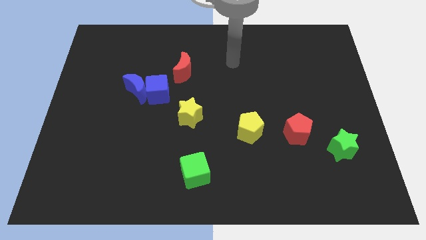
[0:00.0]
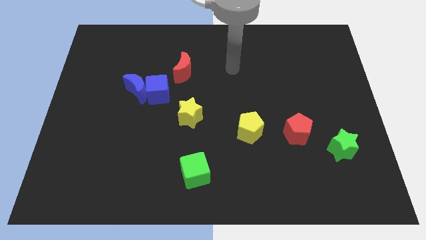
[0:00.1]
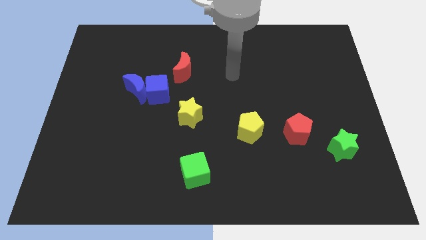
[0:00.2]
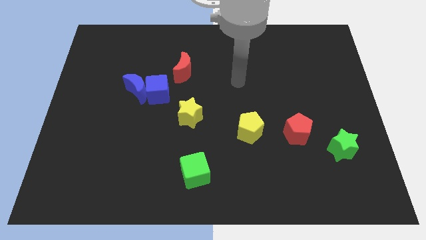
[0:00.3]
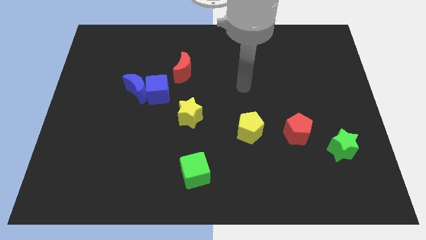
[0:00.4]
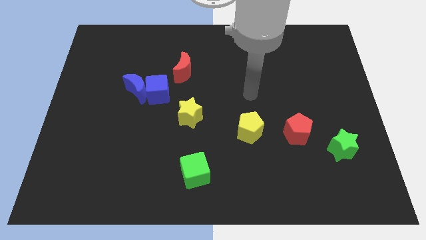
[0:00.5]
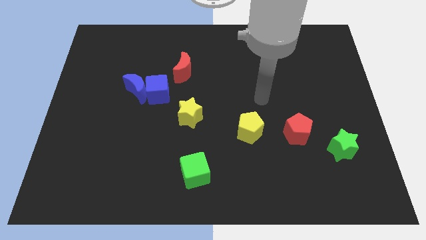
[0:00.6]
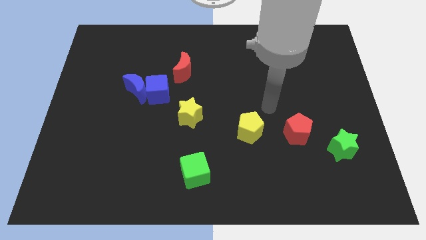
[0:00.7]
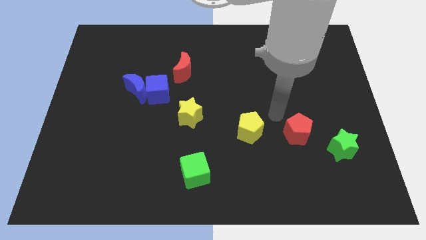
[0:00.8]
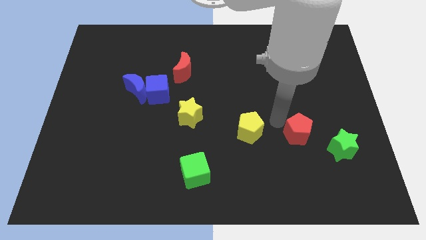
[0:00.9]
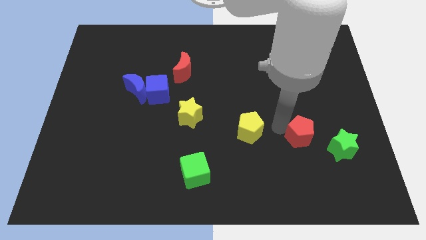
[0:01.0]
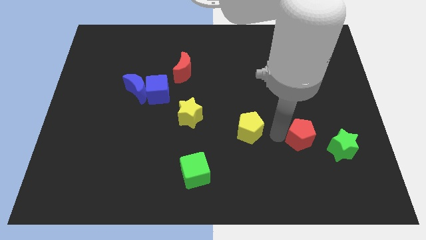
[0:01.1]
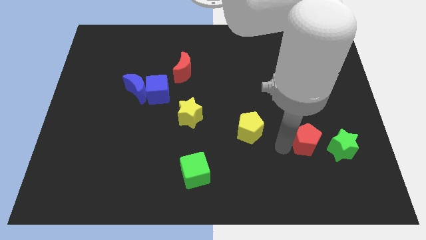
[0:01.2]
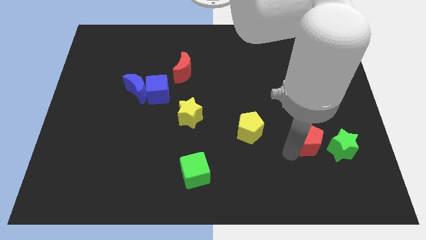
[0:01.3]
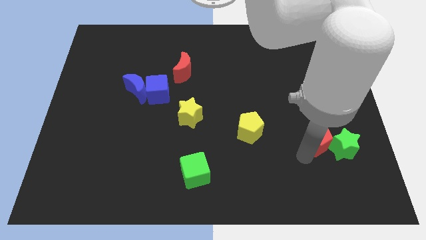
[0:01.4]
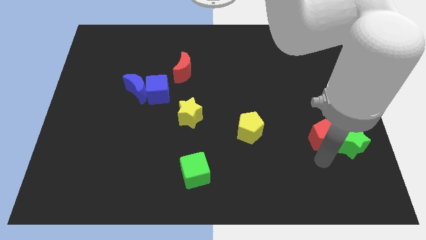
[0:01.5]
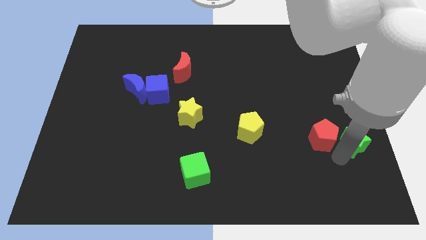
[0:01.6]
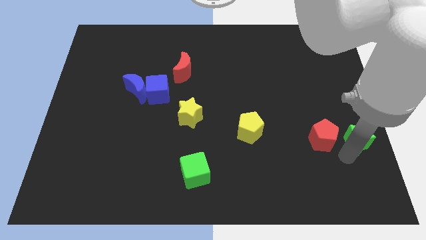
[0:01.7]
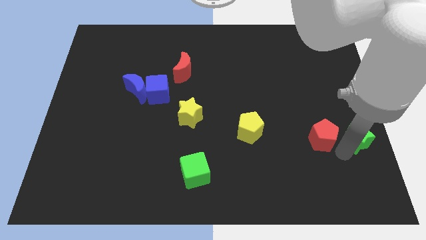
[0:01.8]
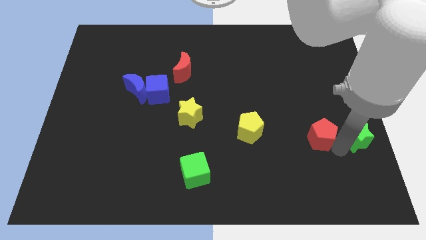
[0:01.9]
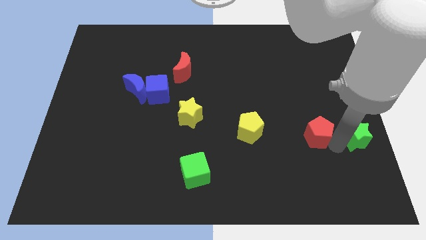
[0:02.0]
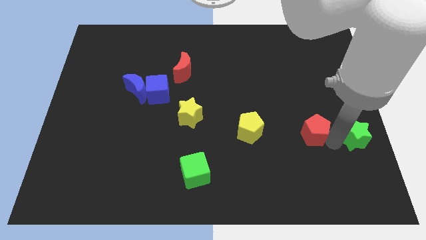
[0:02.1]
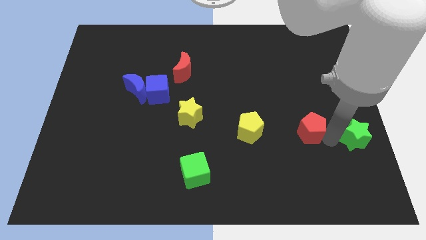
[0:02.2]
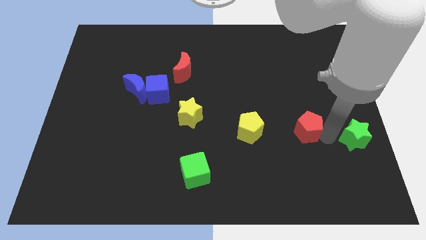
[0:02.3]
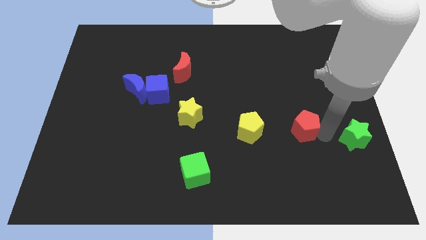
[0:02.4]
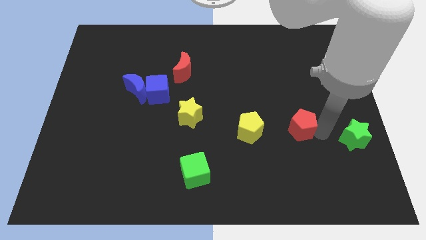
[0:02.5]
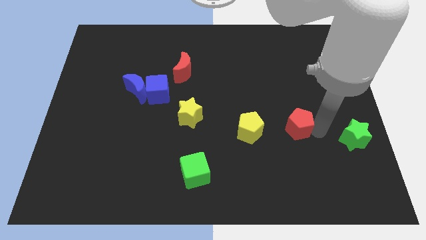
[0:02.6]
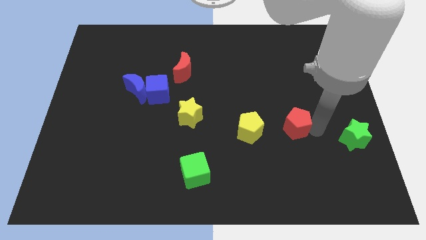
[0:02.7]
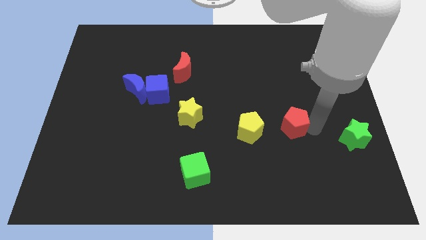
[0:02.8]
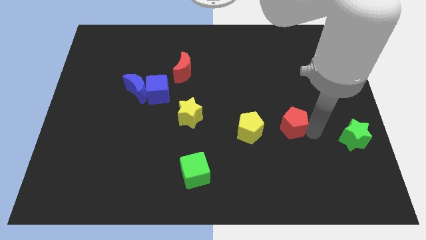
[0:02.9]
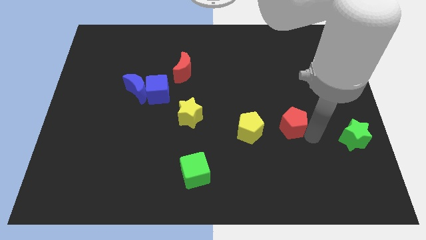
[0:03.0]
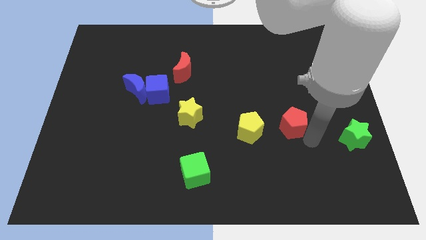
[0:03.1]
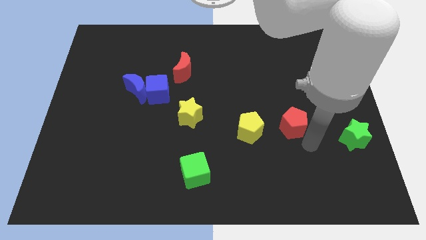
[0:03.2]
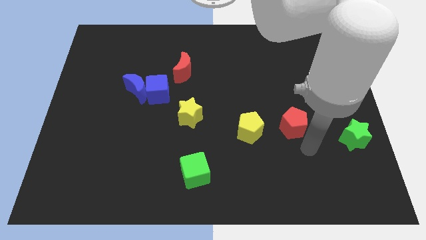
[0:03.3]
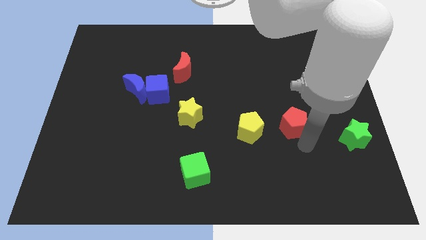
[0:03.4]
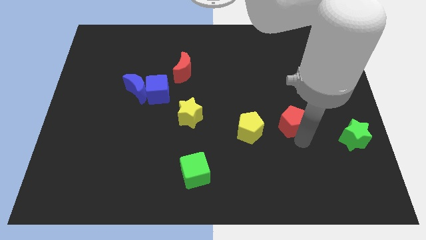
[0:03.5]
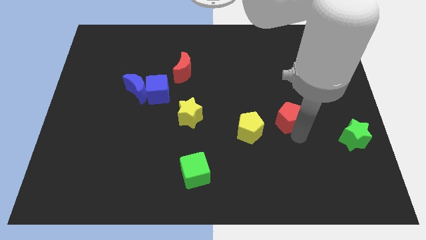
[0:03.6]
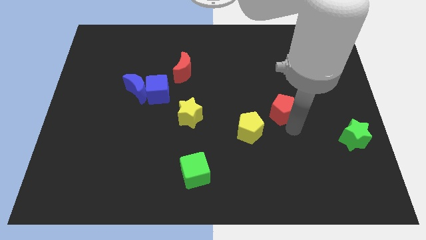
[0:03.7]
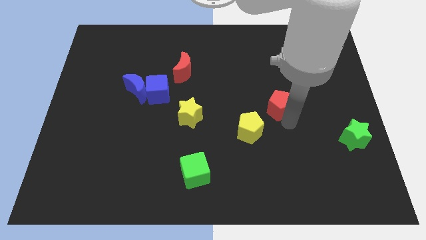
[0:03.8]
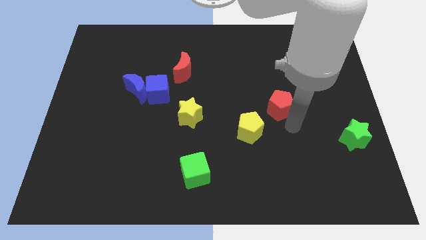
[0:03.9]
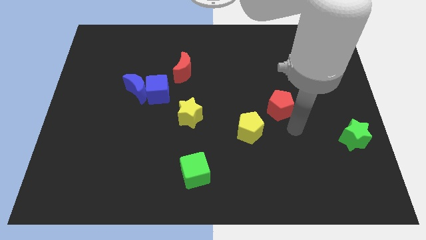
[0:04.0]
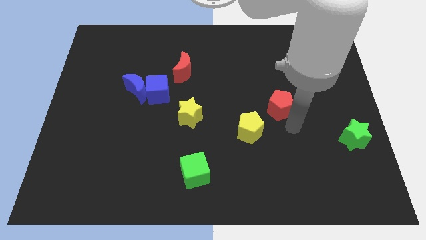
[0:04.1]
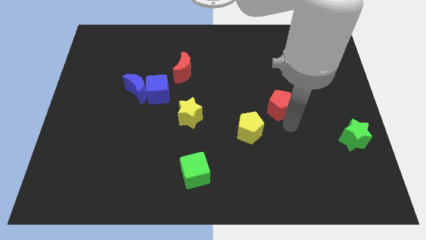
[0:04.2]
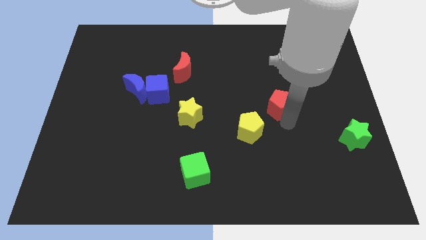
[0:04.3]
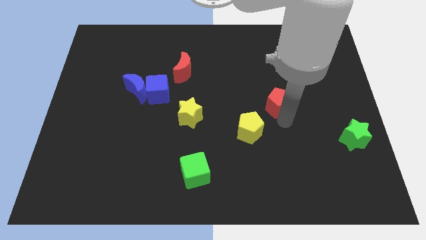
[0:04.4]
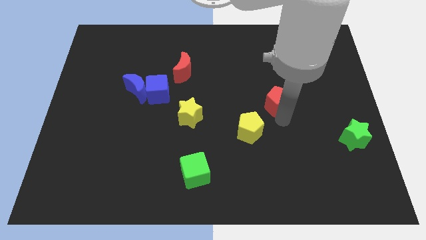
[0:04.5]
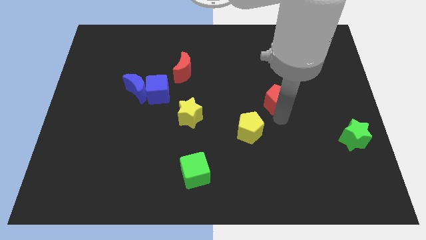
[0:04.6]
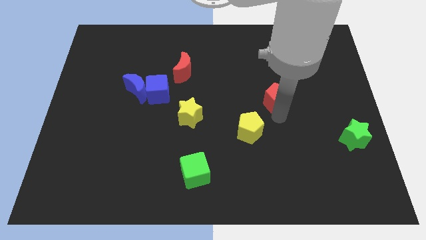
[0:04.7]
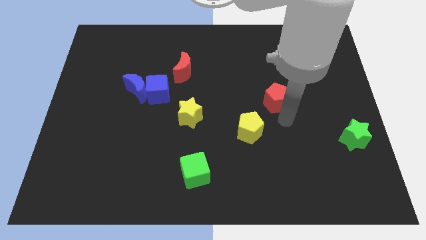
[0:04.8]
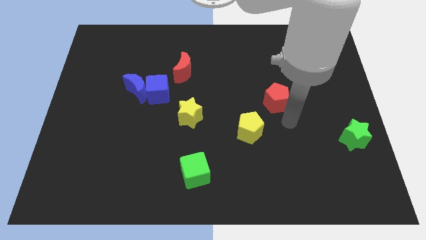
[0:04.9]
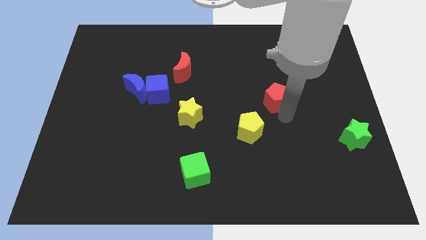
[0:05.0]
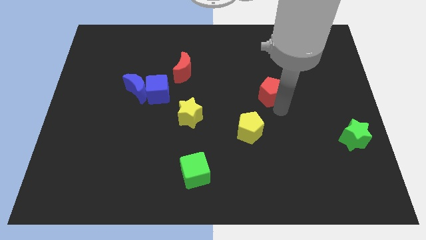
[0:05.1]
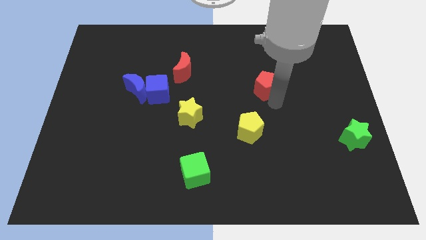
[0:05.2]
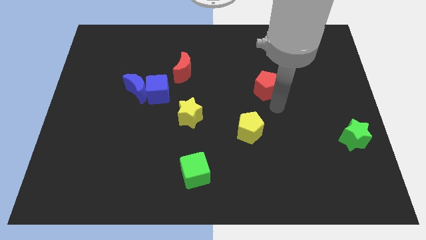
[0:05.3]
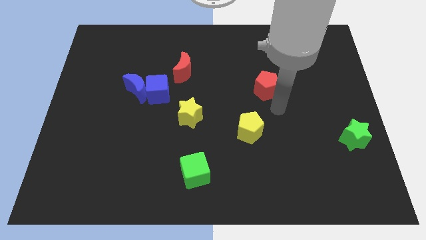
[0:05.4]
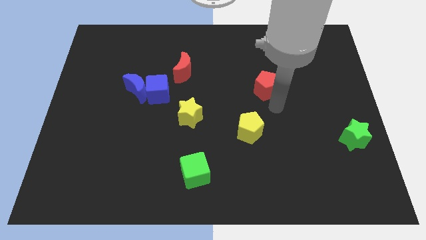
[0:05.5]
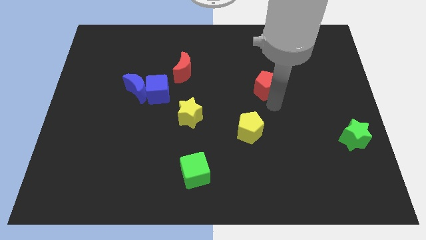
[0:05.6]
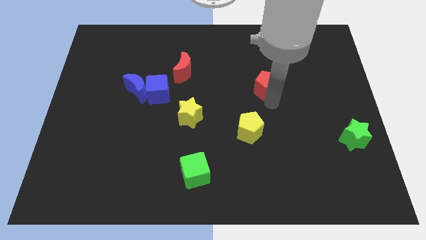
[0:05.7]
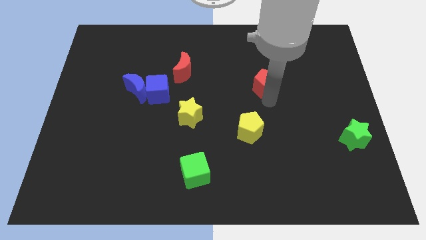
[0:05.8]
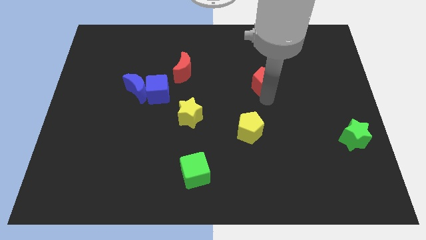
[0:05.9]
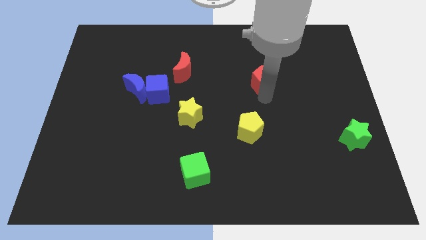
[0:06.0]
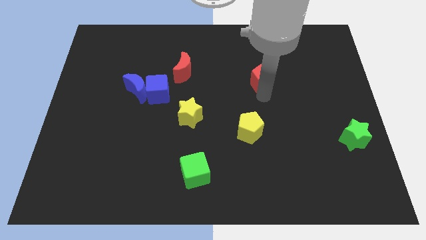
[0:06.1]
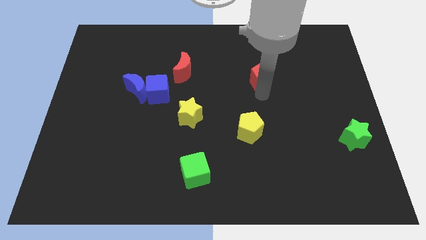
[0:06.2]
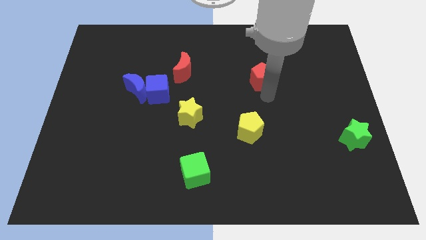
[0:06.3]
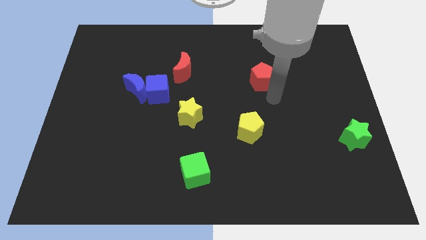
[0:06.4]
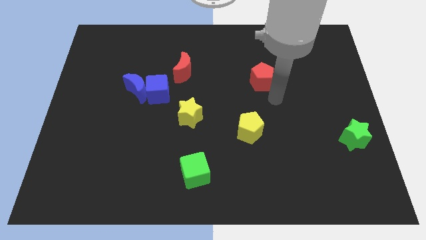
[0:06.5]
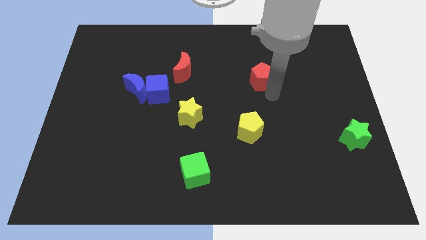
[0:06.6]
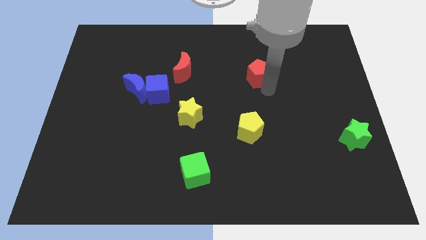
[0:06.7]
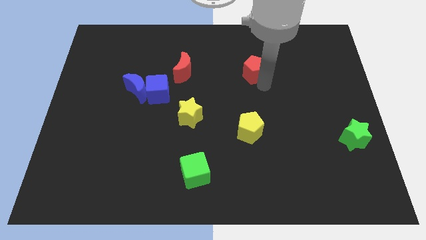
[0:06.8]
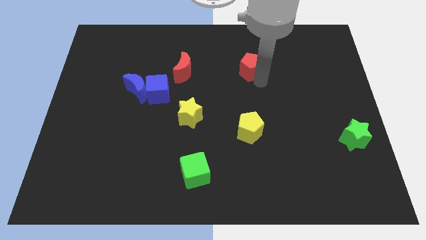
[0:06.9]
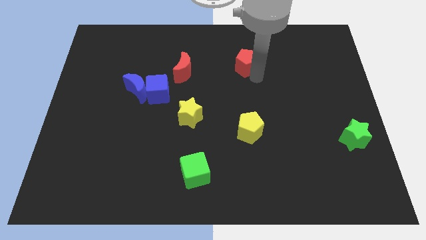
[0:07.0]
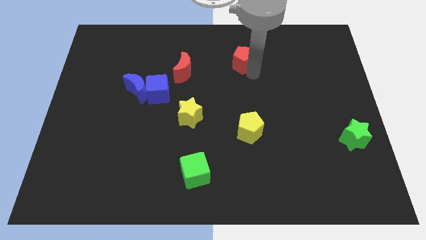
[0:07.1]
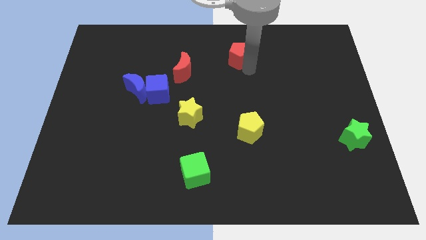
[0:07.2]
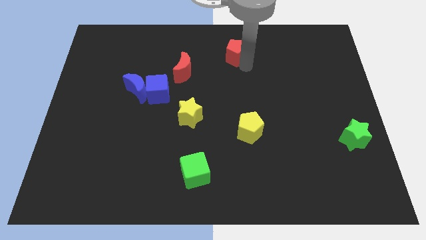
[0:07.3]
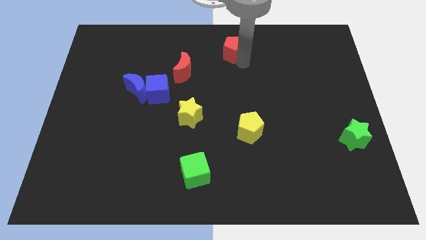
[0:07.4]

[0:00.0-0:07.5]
slide the red pentagon to the towards your base
